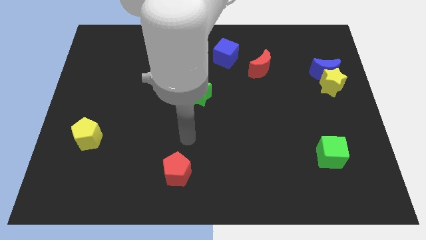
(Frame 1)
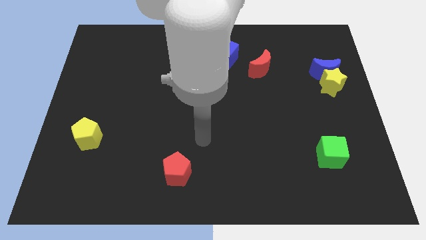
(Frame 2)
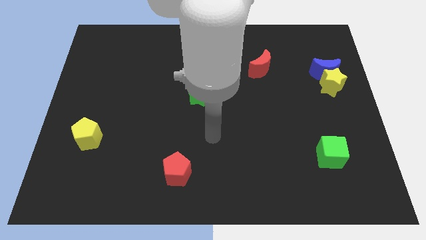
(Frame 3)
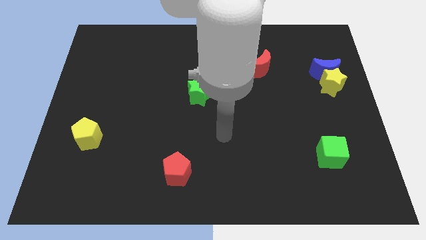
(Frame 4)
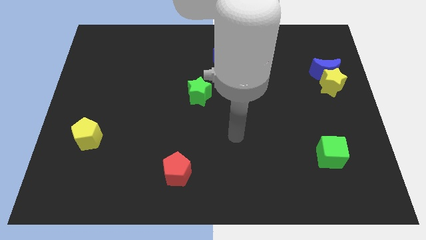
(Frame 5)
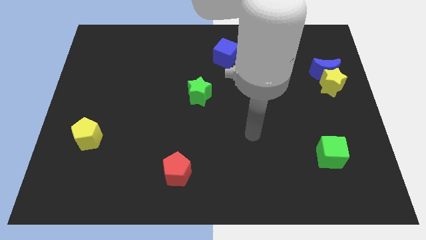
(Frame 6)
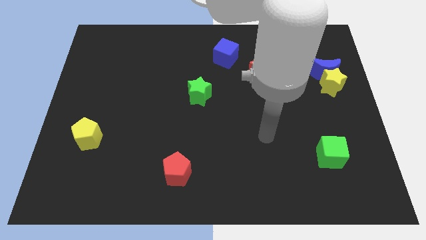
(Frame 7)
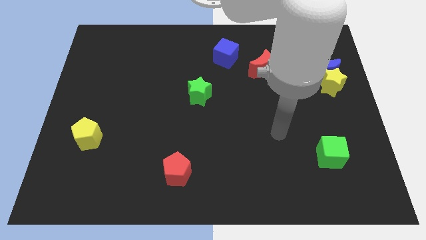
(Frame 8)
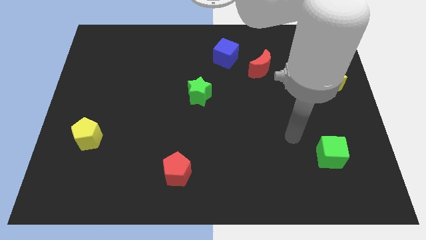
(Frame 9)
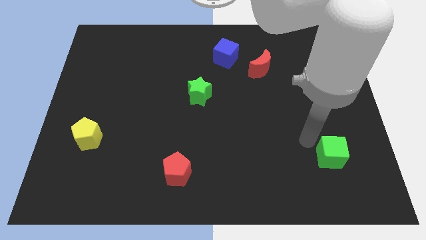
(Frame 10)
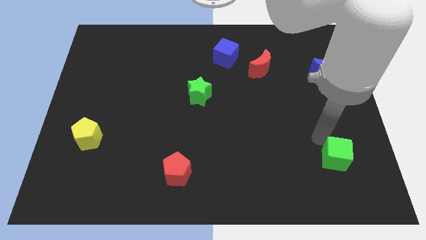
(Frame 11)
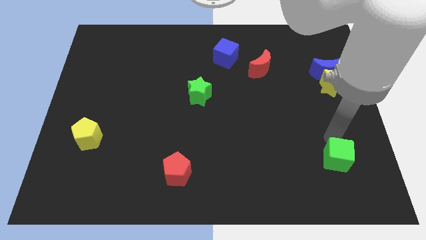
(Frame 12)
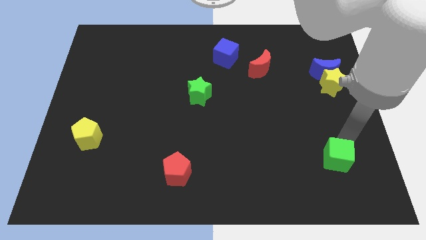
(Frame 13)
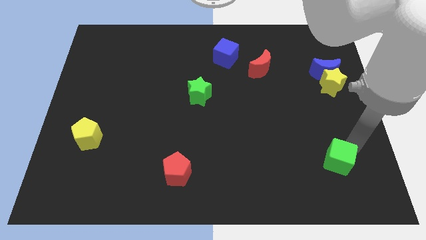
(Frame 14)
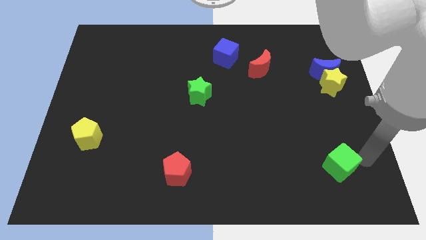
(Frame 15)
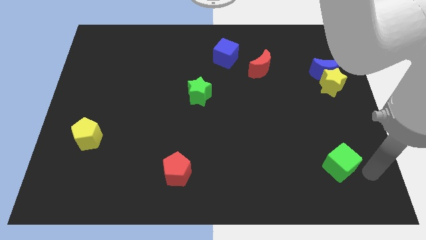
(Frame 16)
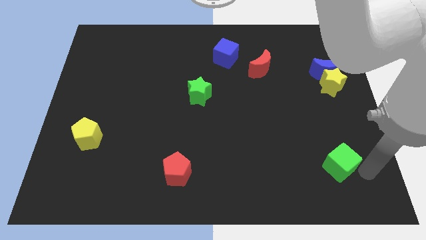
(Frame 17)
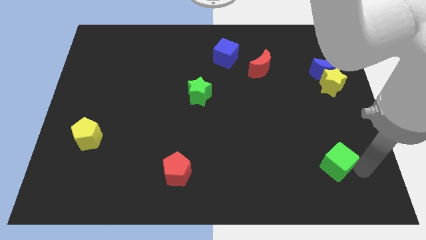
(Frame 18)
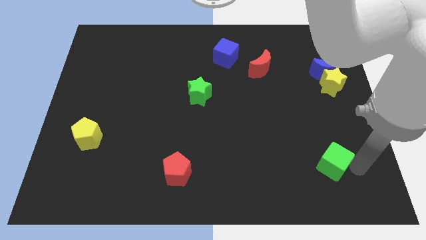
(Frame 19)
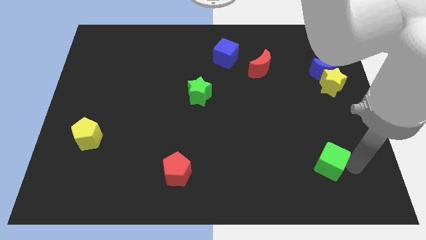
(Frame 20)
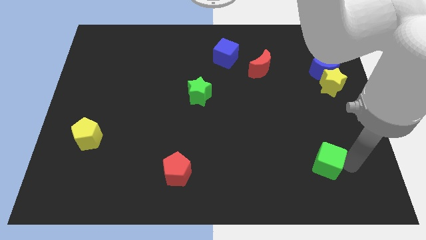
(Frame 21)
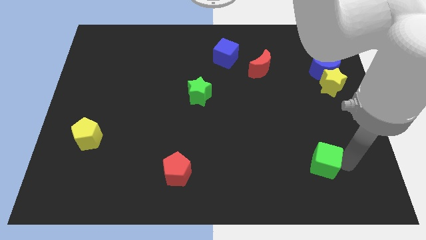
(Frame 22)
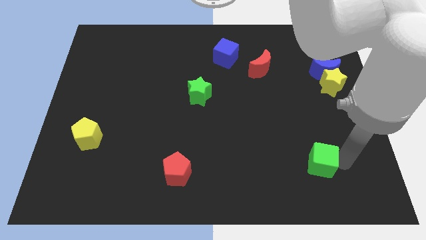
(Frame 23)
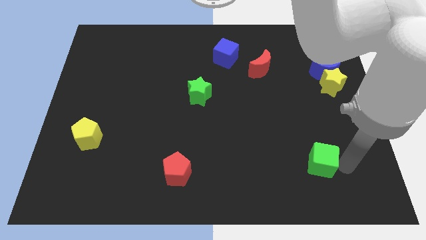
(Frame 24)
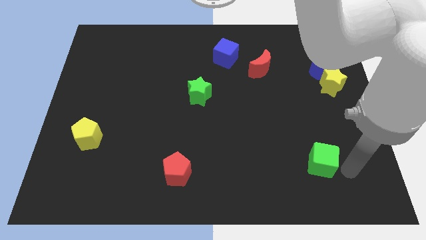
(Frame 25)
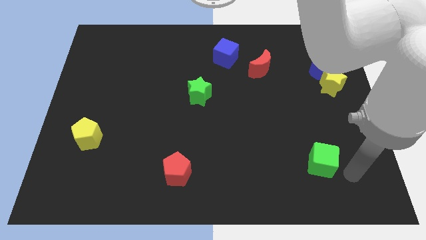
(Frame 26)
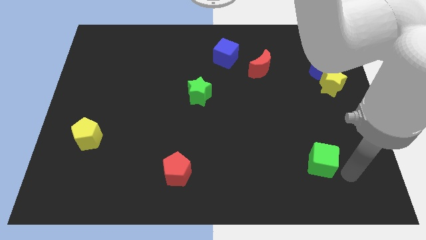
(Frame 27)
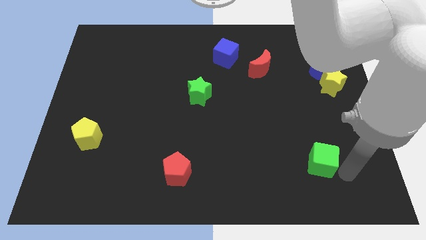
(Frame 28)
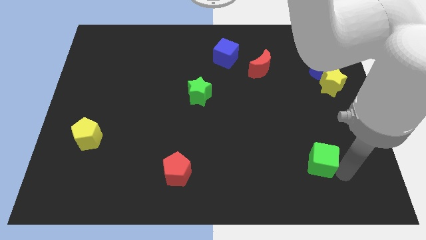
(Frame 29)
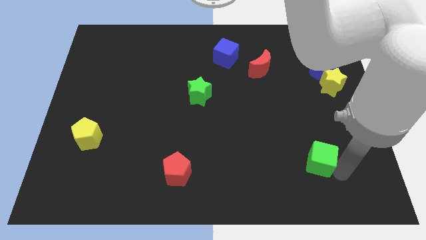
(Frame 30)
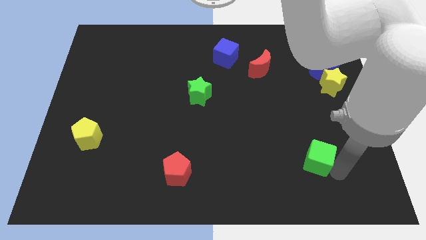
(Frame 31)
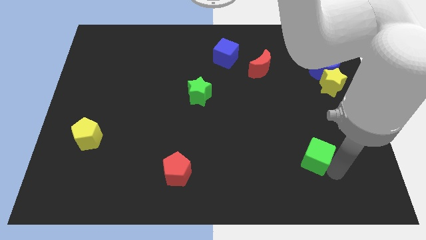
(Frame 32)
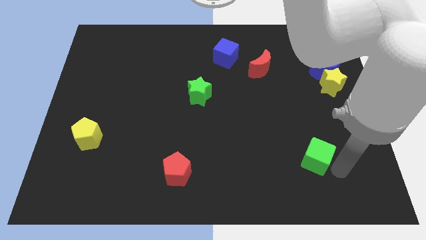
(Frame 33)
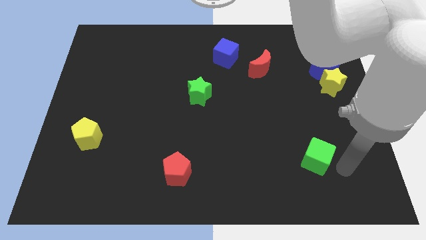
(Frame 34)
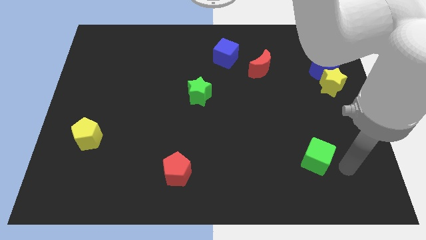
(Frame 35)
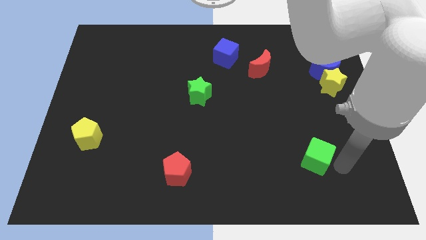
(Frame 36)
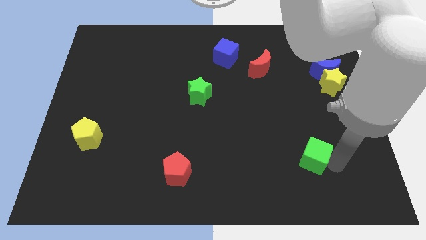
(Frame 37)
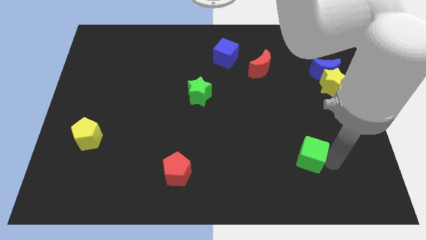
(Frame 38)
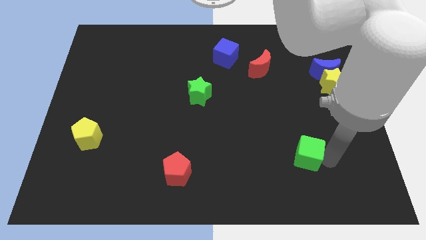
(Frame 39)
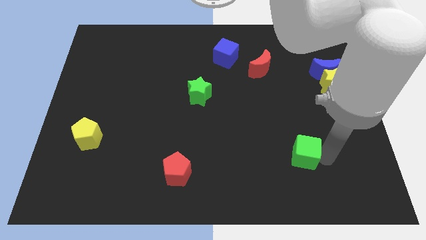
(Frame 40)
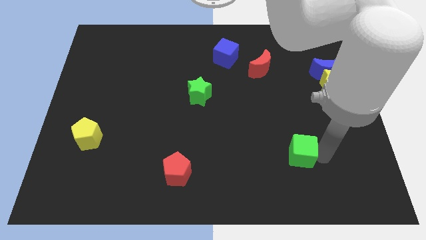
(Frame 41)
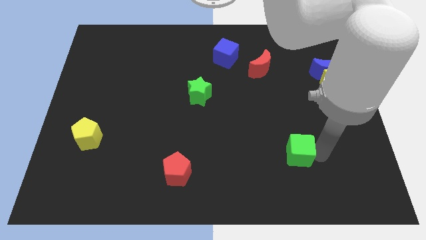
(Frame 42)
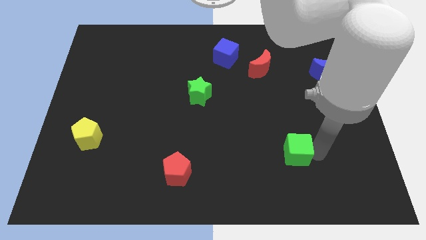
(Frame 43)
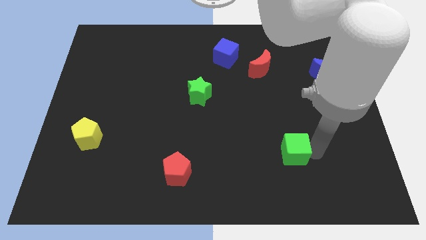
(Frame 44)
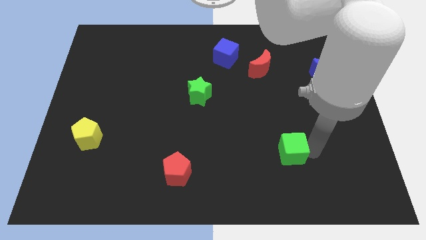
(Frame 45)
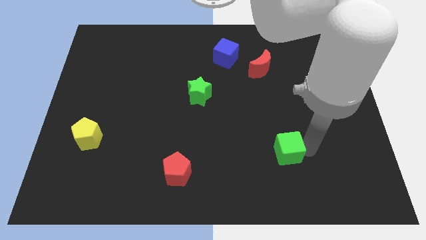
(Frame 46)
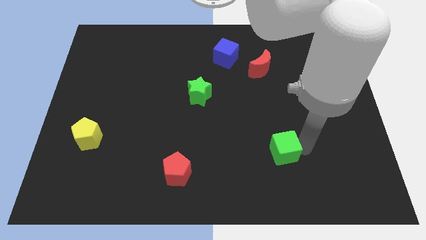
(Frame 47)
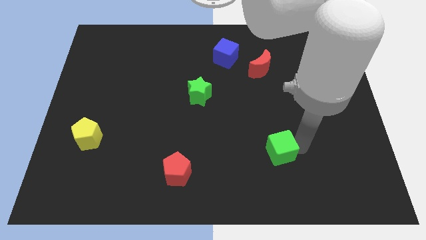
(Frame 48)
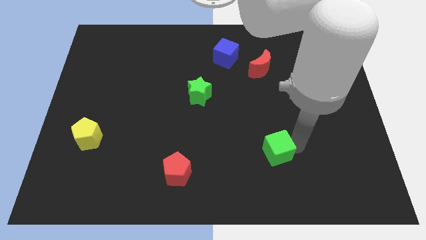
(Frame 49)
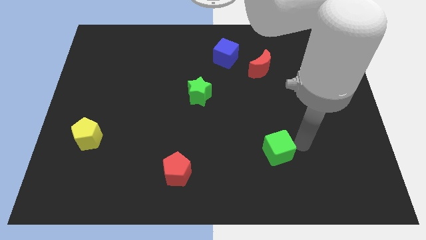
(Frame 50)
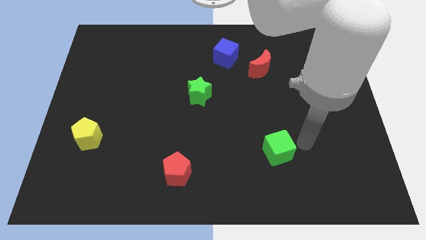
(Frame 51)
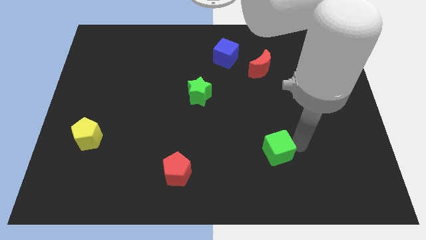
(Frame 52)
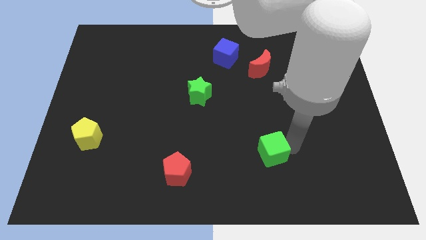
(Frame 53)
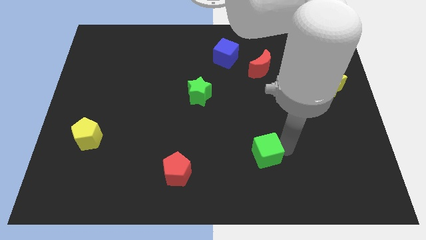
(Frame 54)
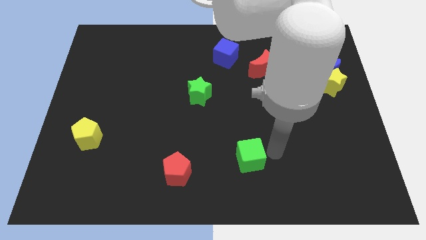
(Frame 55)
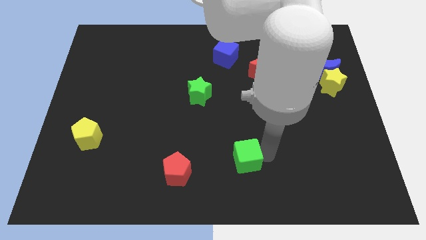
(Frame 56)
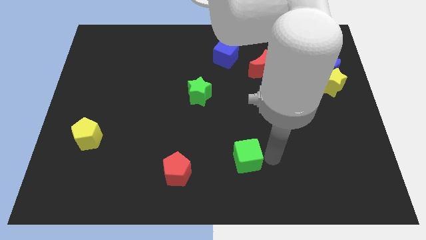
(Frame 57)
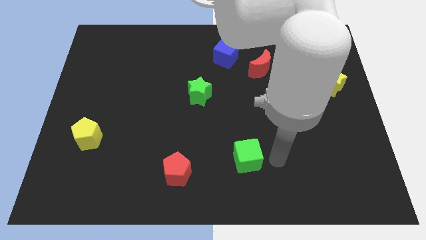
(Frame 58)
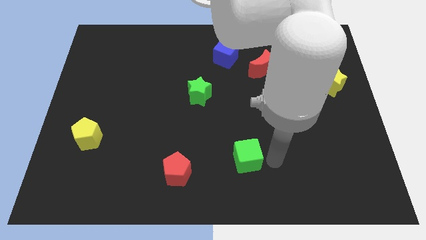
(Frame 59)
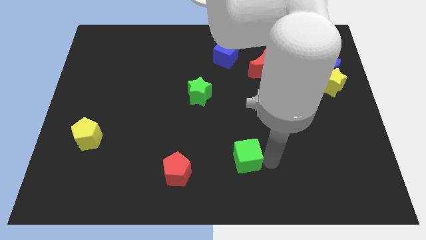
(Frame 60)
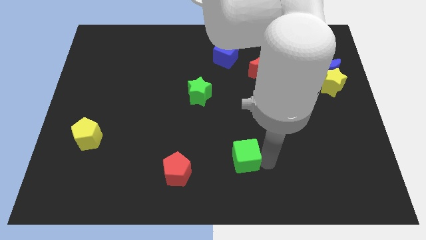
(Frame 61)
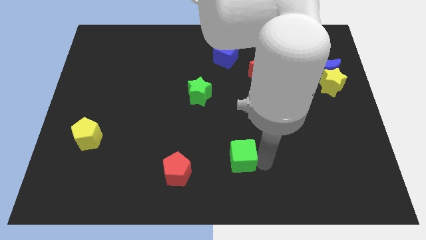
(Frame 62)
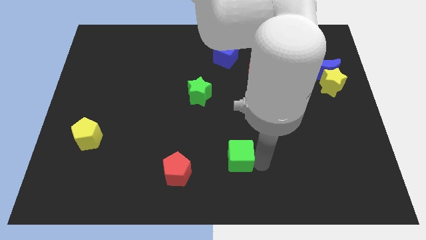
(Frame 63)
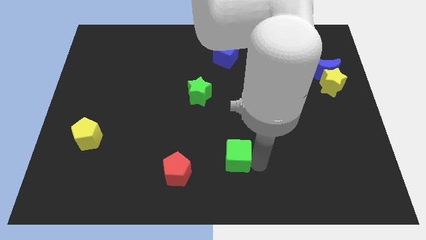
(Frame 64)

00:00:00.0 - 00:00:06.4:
move the green cube left

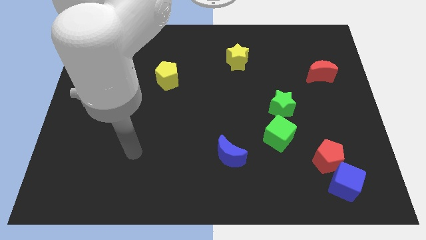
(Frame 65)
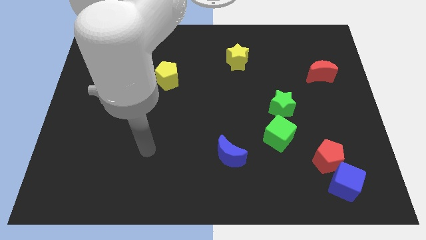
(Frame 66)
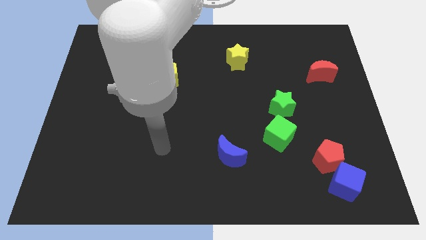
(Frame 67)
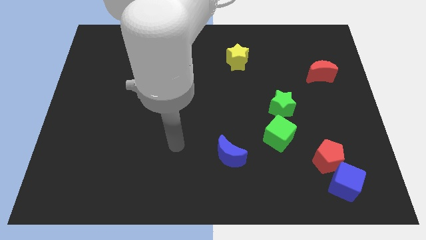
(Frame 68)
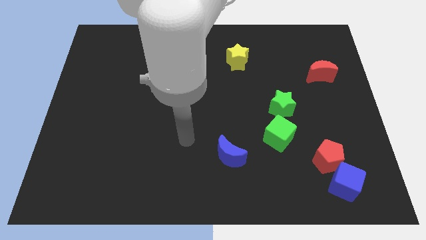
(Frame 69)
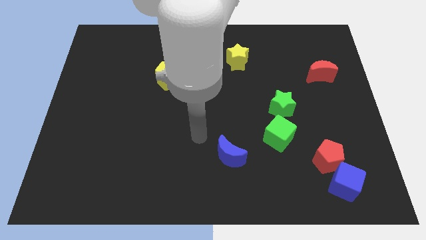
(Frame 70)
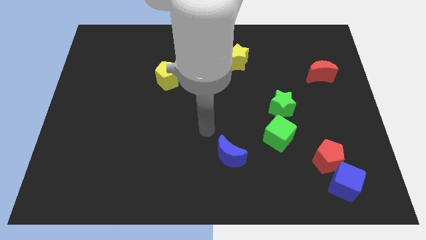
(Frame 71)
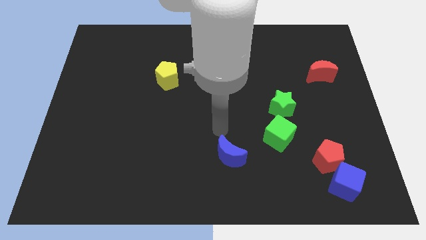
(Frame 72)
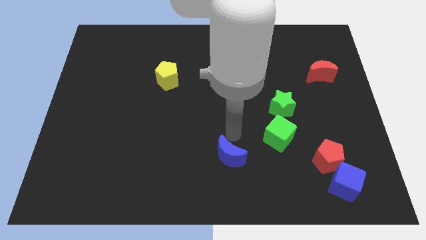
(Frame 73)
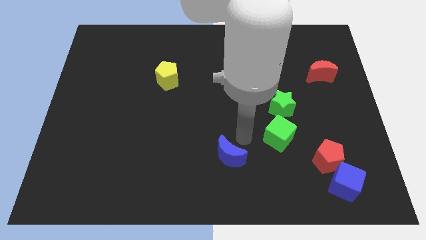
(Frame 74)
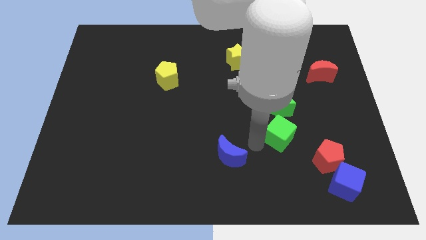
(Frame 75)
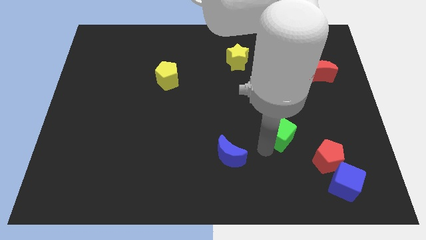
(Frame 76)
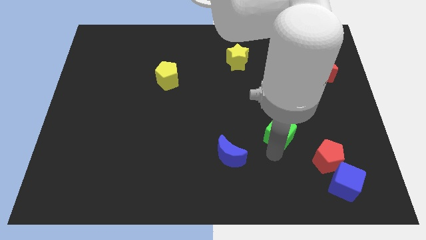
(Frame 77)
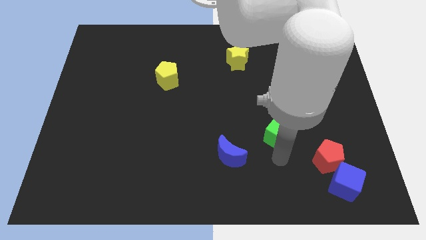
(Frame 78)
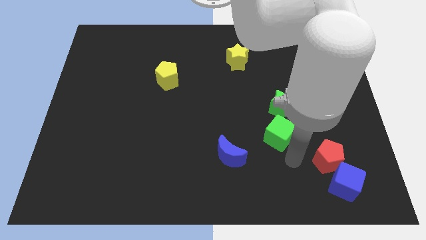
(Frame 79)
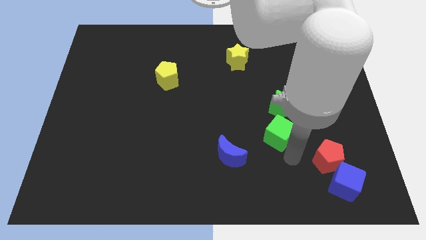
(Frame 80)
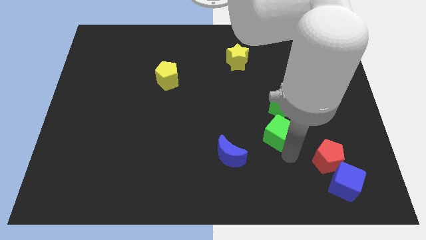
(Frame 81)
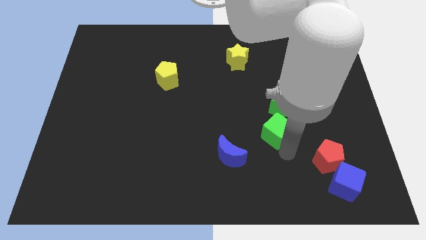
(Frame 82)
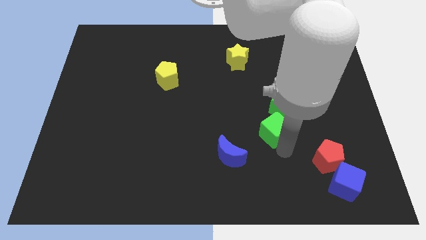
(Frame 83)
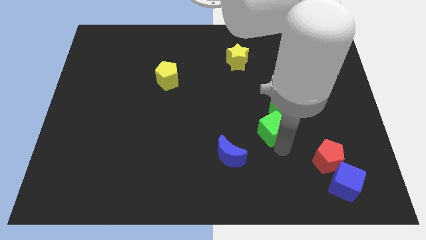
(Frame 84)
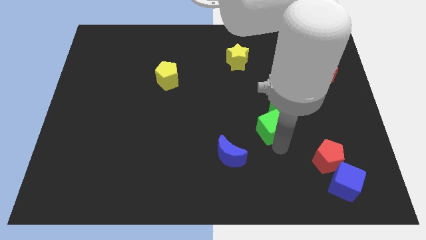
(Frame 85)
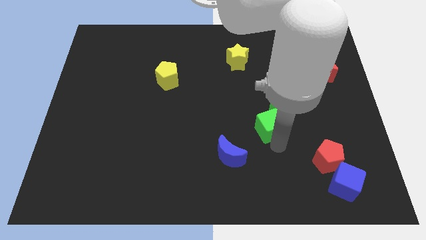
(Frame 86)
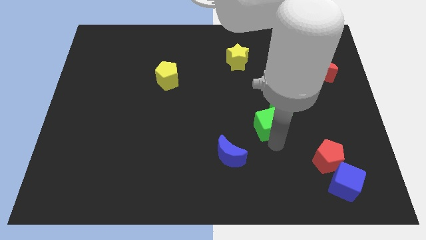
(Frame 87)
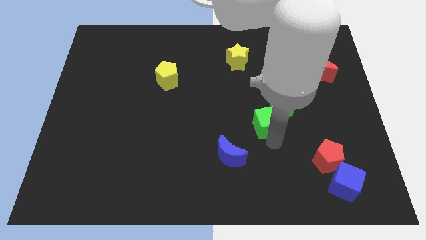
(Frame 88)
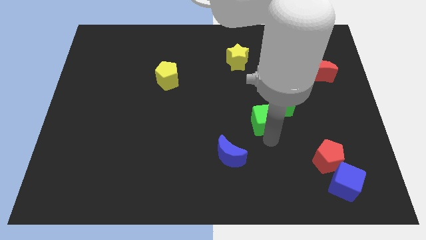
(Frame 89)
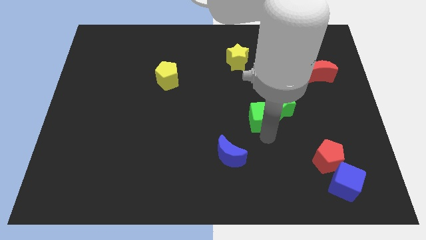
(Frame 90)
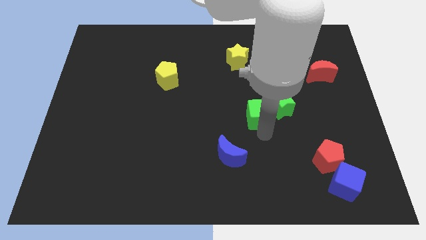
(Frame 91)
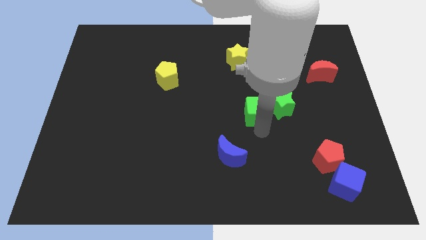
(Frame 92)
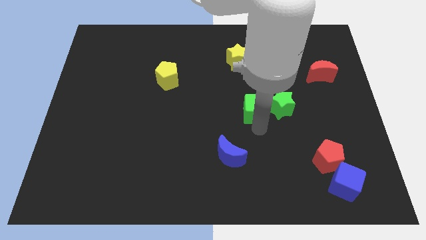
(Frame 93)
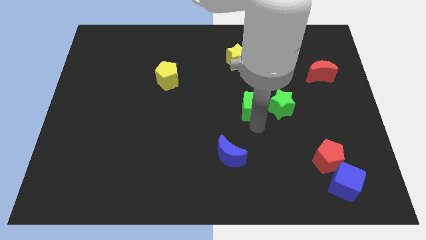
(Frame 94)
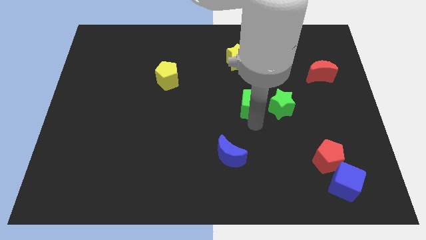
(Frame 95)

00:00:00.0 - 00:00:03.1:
push the green cube upwards slightly
